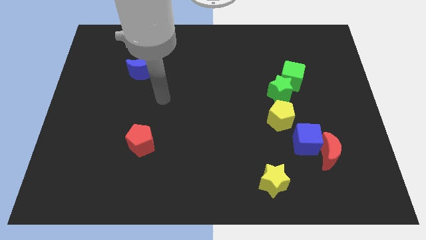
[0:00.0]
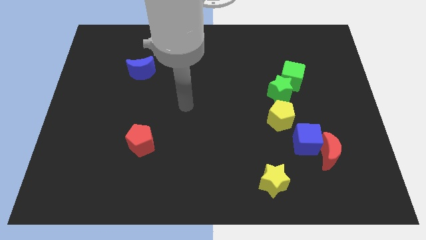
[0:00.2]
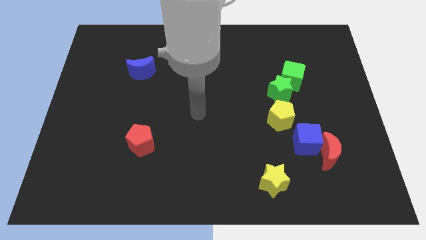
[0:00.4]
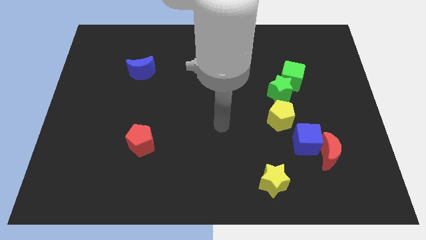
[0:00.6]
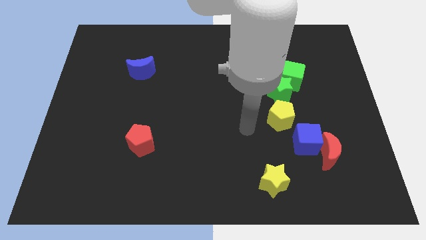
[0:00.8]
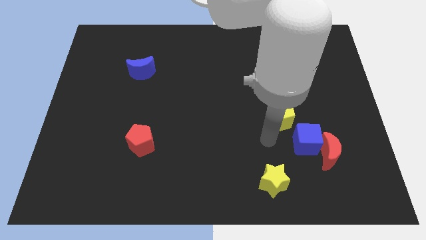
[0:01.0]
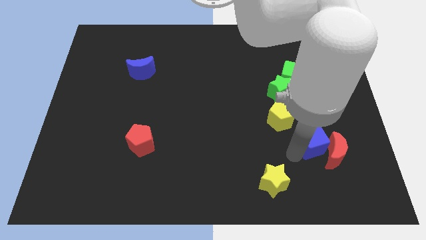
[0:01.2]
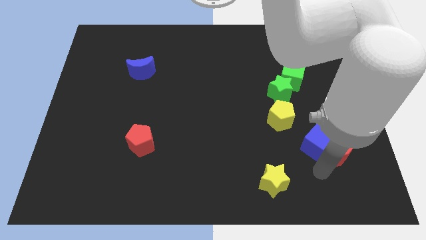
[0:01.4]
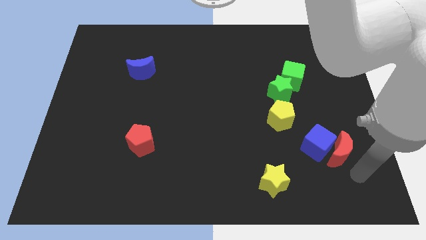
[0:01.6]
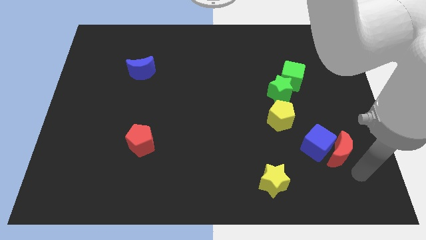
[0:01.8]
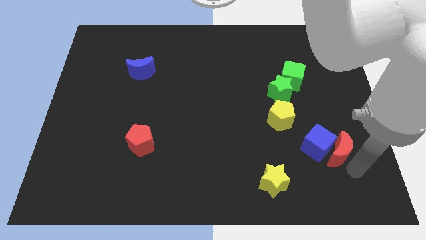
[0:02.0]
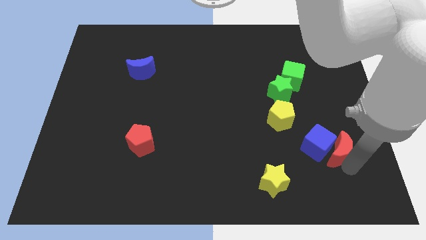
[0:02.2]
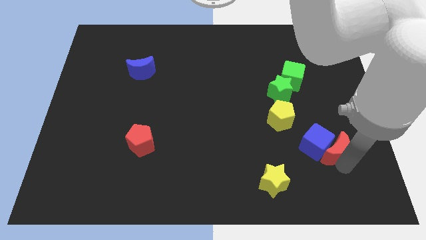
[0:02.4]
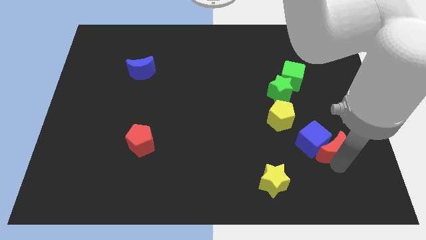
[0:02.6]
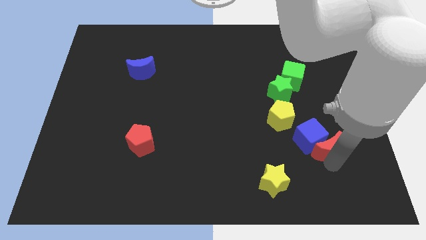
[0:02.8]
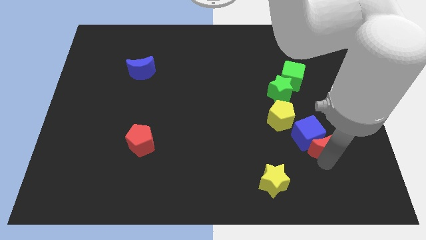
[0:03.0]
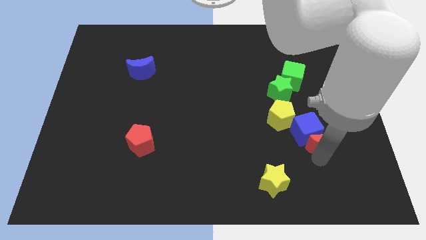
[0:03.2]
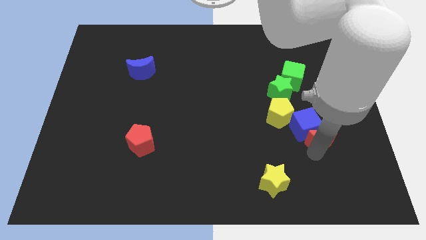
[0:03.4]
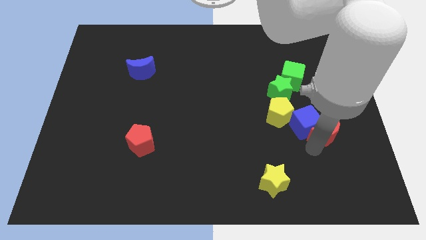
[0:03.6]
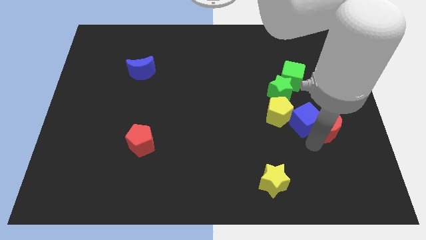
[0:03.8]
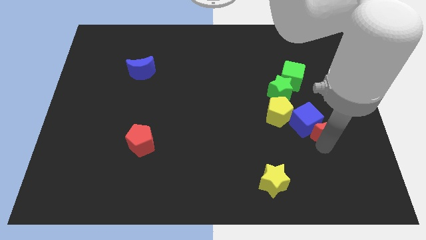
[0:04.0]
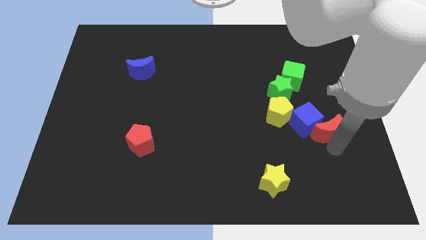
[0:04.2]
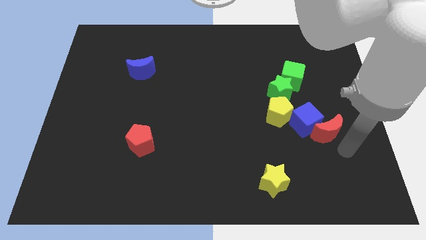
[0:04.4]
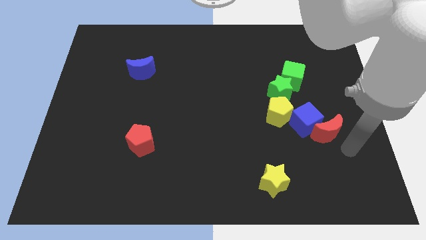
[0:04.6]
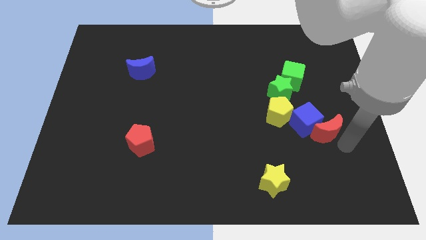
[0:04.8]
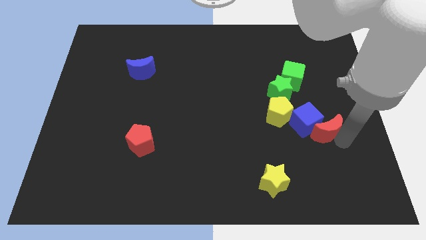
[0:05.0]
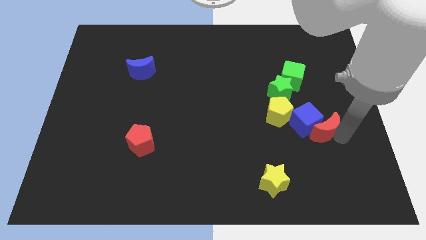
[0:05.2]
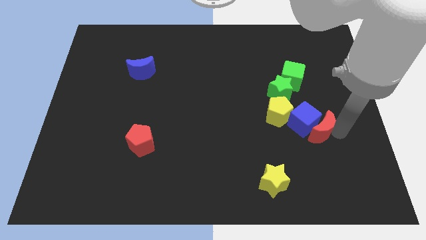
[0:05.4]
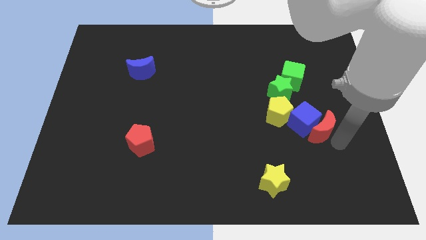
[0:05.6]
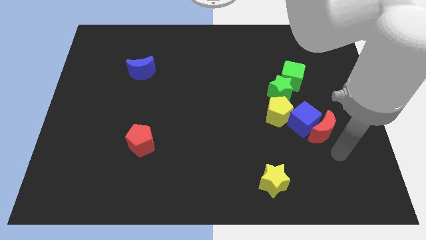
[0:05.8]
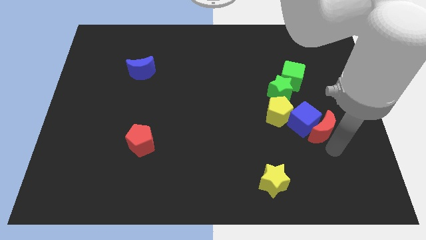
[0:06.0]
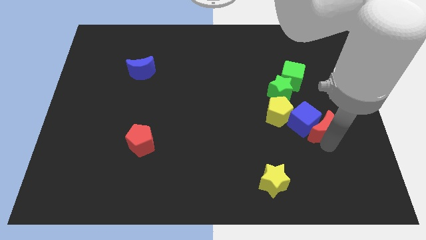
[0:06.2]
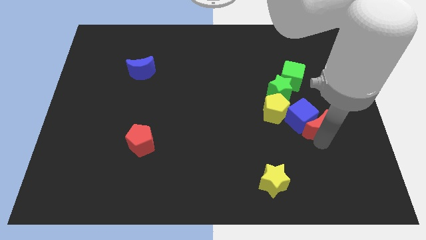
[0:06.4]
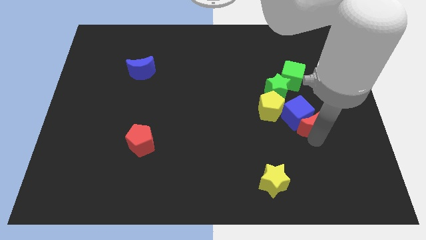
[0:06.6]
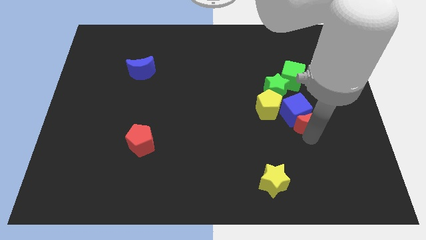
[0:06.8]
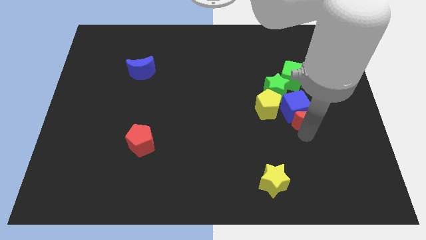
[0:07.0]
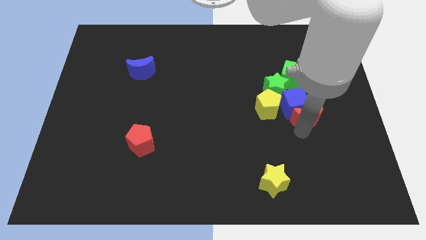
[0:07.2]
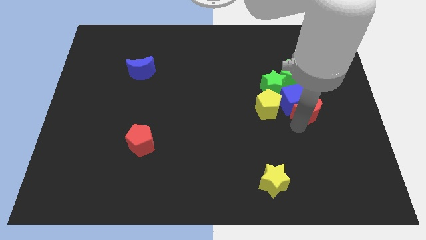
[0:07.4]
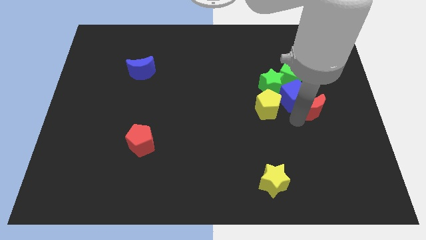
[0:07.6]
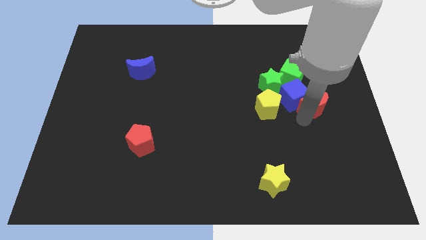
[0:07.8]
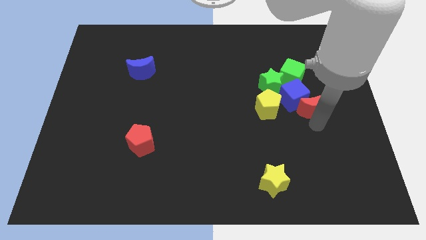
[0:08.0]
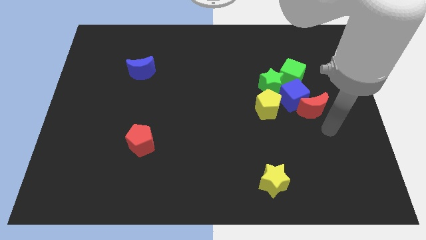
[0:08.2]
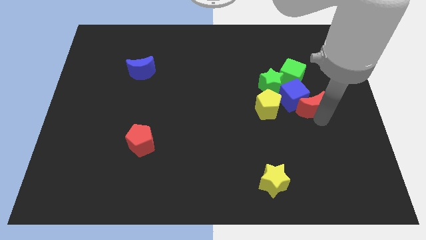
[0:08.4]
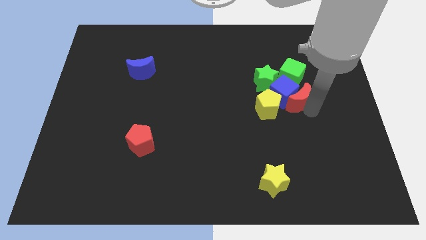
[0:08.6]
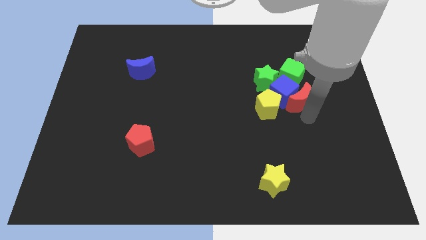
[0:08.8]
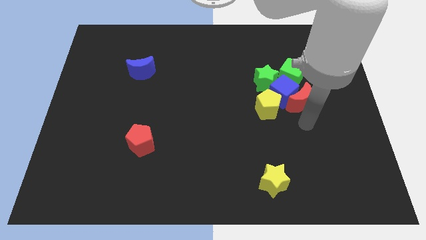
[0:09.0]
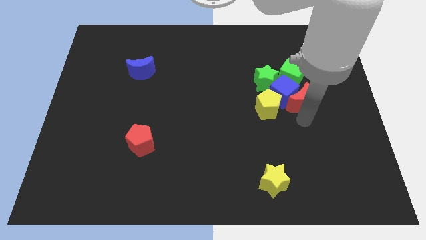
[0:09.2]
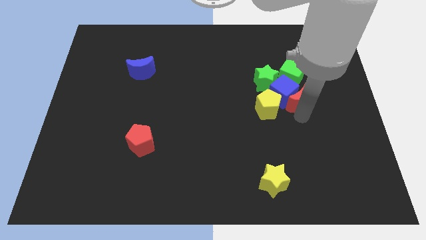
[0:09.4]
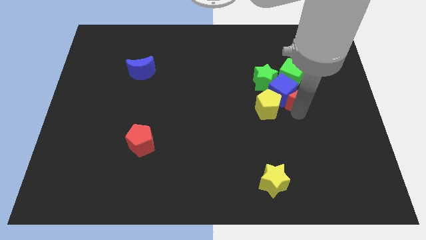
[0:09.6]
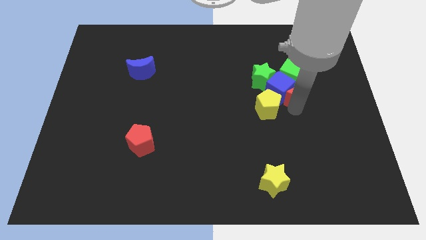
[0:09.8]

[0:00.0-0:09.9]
slide the red moon towards the green cube

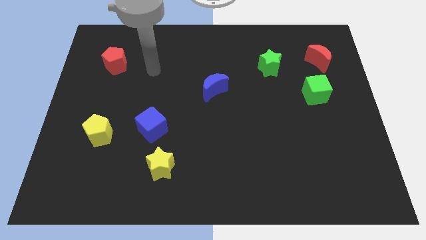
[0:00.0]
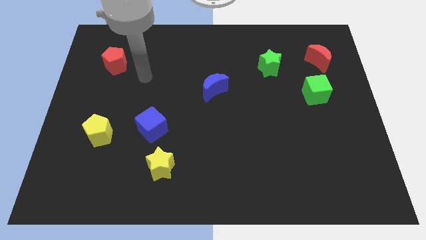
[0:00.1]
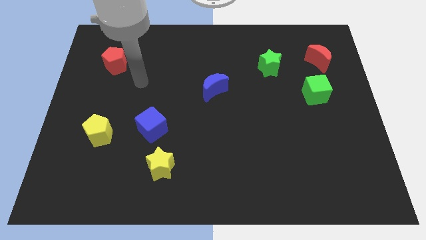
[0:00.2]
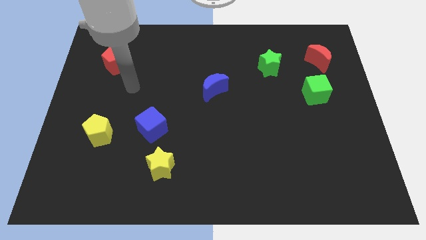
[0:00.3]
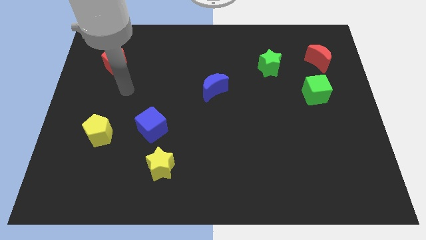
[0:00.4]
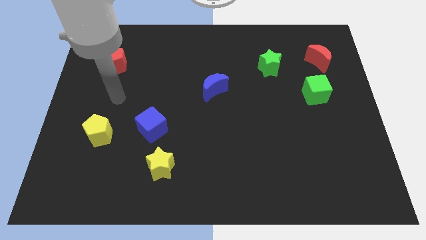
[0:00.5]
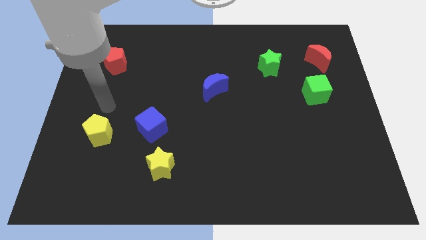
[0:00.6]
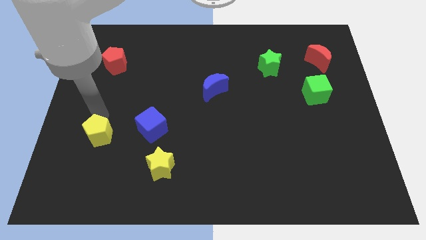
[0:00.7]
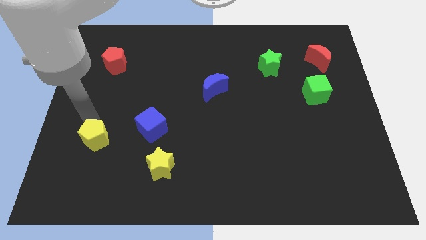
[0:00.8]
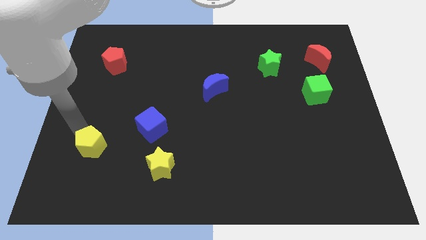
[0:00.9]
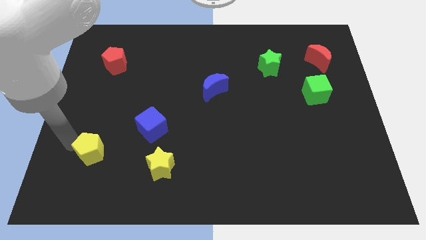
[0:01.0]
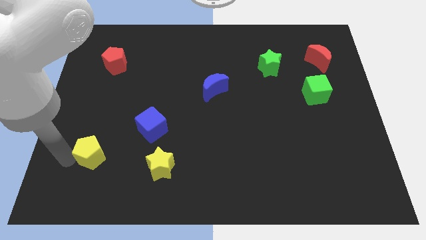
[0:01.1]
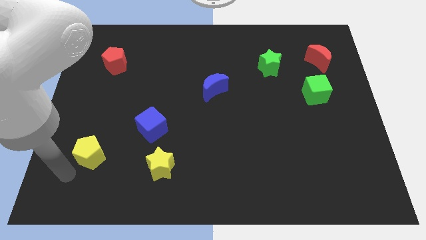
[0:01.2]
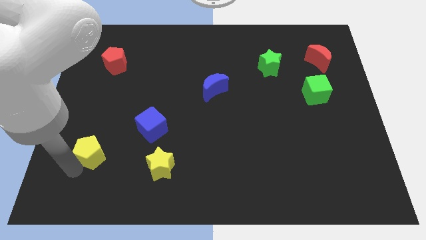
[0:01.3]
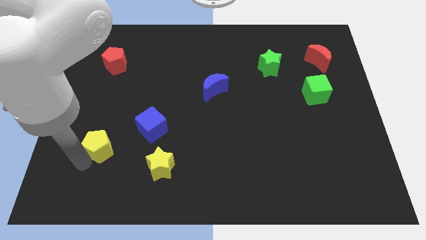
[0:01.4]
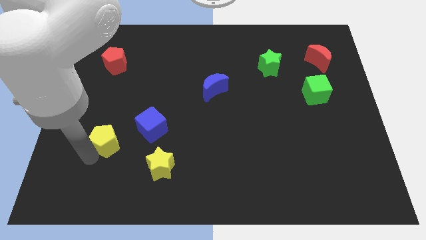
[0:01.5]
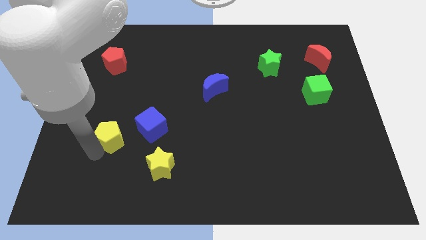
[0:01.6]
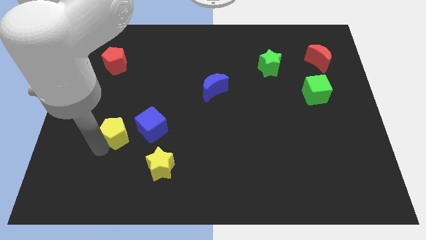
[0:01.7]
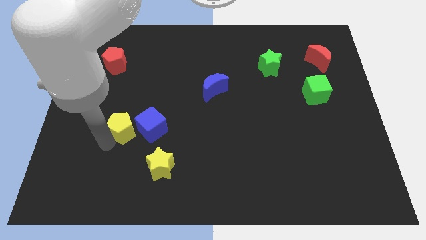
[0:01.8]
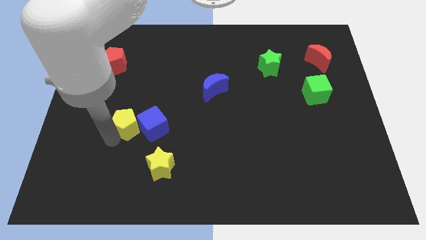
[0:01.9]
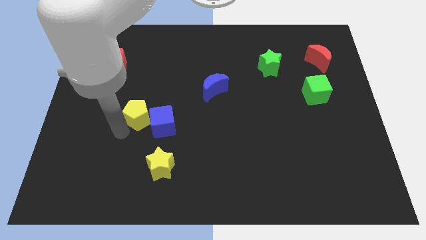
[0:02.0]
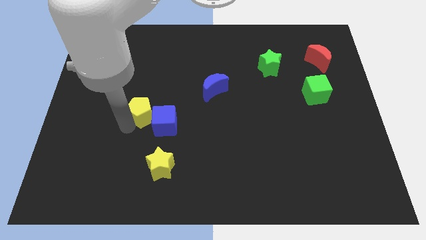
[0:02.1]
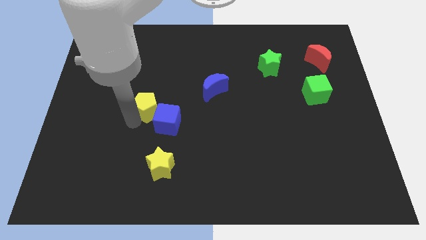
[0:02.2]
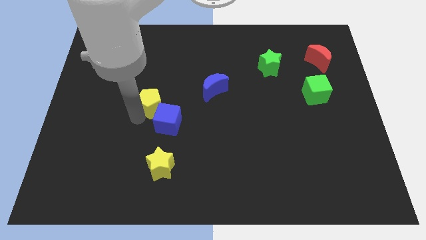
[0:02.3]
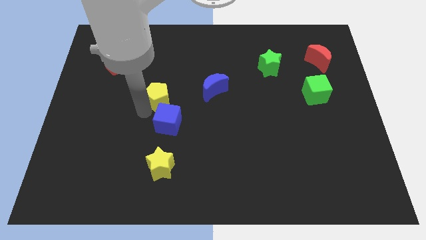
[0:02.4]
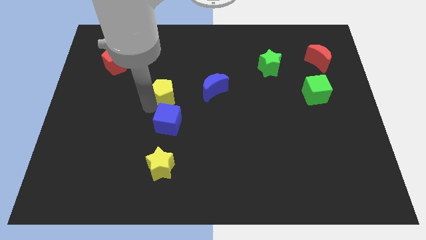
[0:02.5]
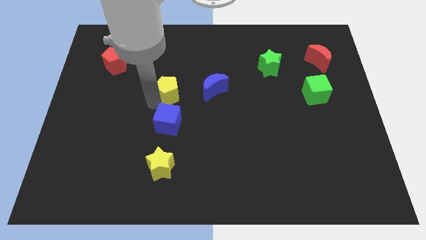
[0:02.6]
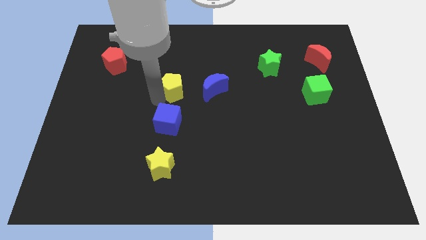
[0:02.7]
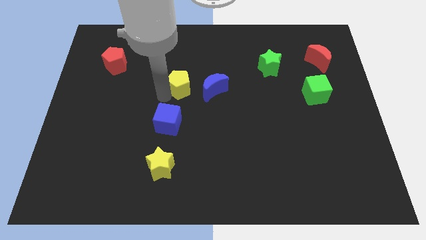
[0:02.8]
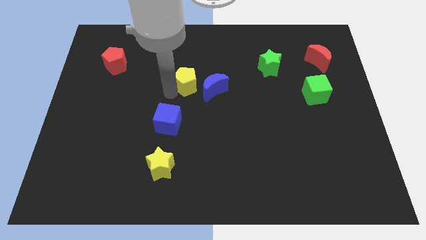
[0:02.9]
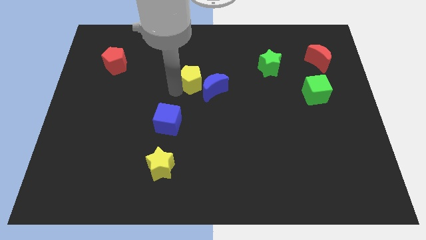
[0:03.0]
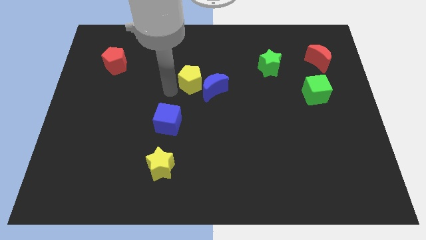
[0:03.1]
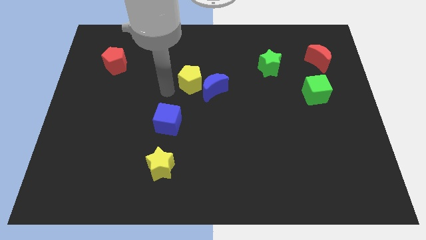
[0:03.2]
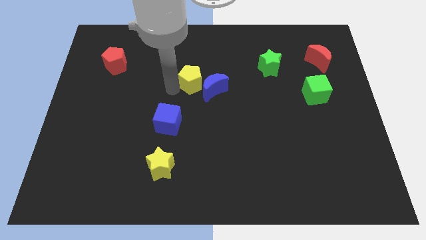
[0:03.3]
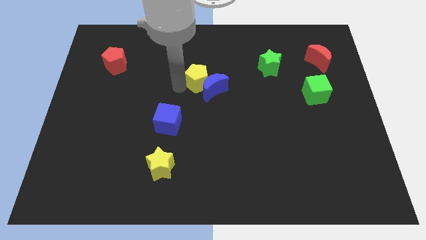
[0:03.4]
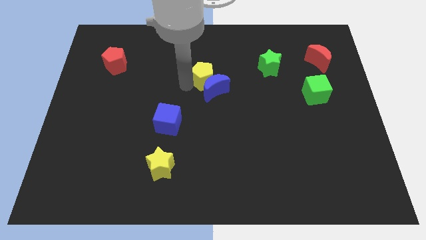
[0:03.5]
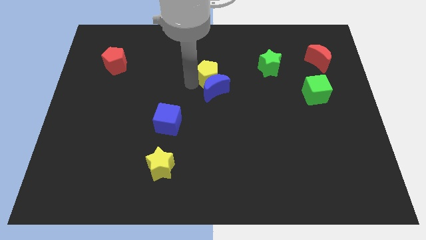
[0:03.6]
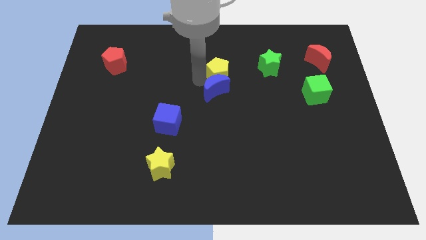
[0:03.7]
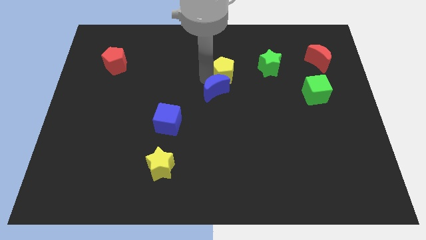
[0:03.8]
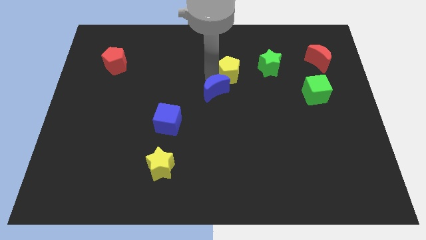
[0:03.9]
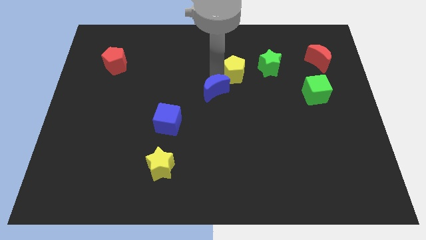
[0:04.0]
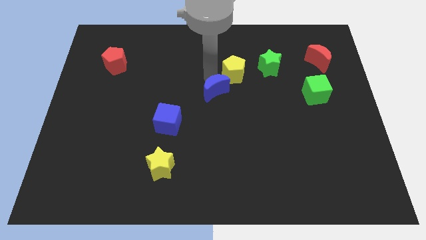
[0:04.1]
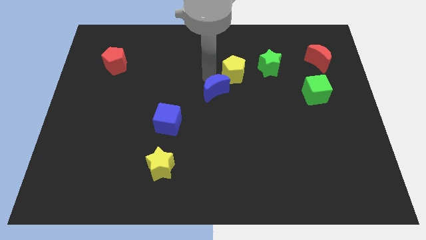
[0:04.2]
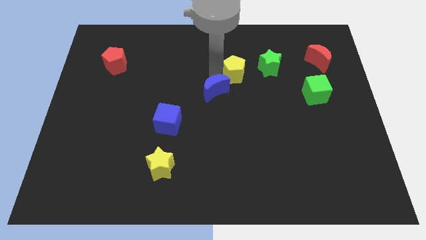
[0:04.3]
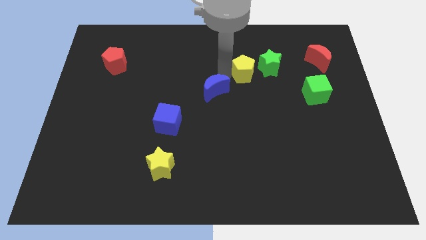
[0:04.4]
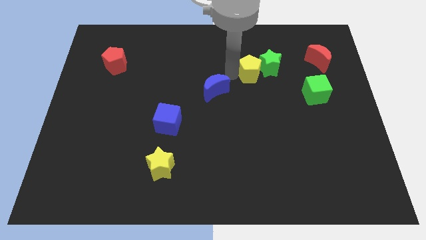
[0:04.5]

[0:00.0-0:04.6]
slide the yellow pentagon to the green star
